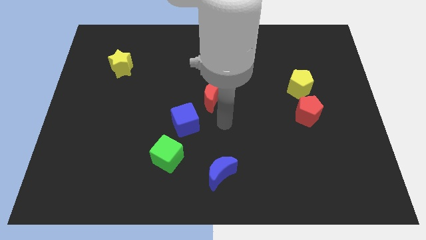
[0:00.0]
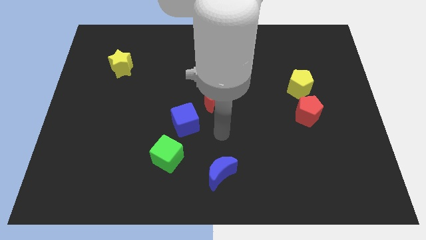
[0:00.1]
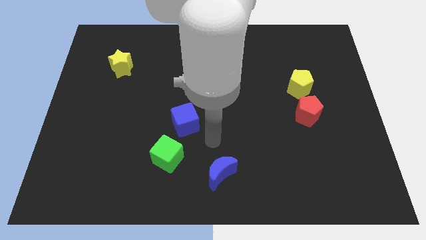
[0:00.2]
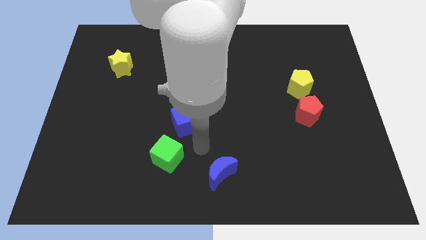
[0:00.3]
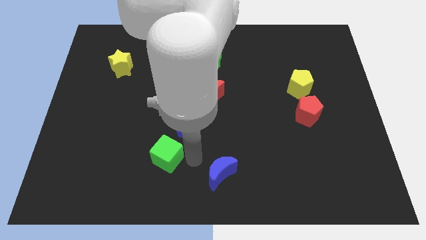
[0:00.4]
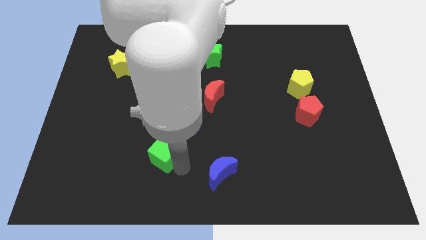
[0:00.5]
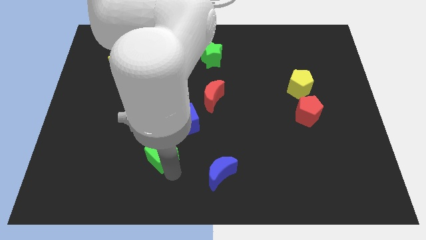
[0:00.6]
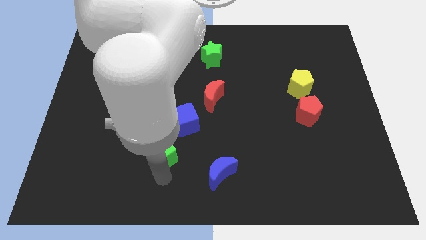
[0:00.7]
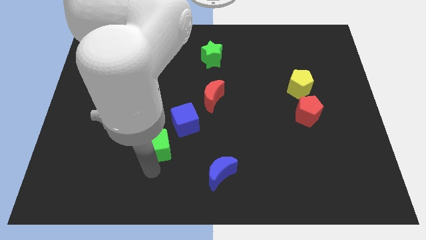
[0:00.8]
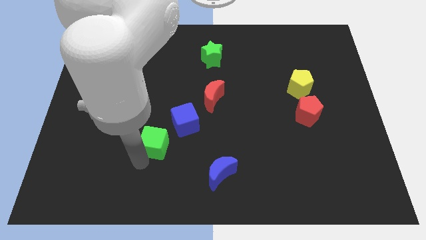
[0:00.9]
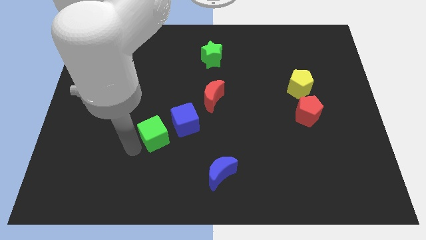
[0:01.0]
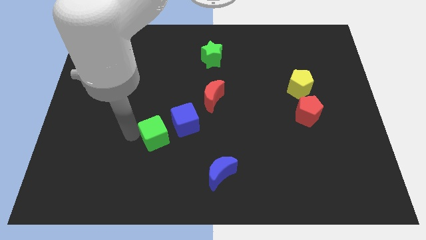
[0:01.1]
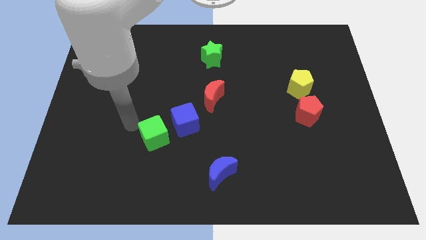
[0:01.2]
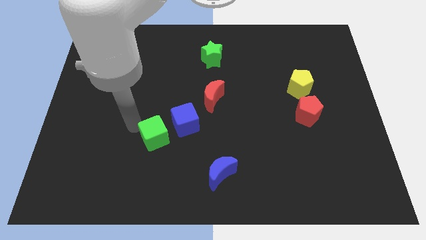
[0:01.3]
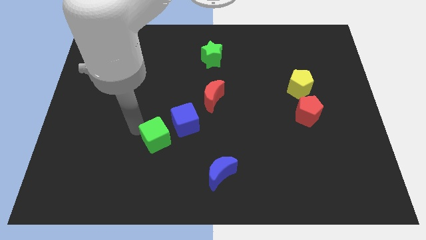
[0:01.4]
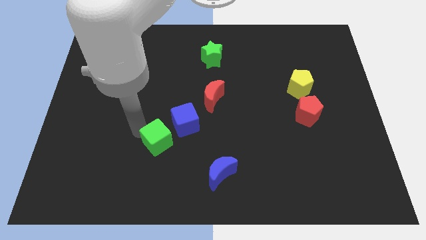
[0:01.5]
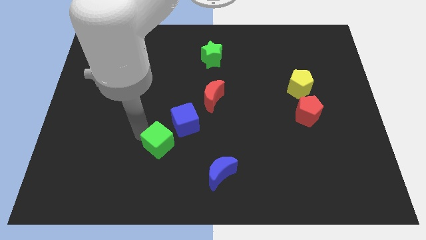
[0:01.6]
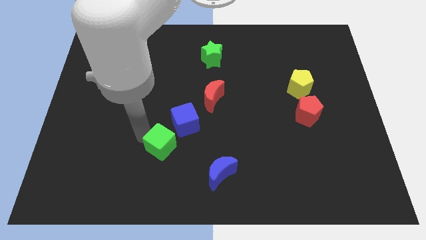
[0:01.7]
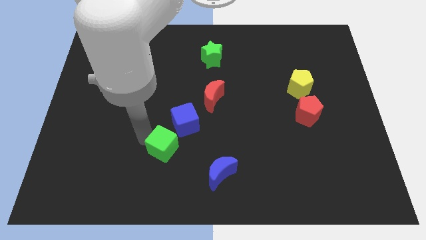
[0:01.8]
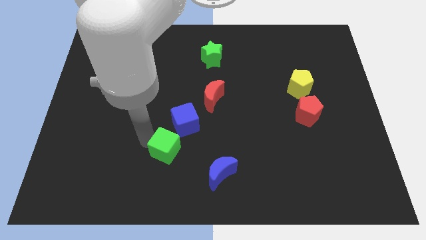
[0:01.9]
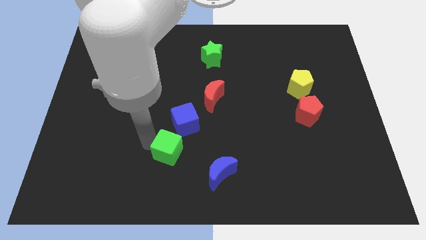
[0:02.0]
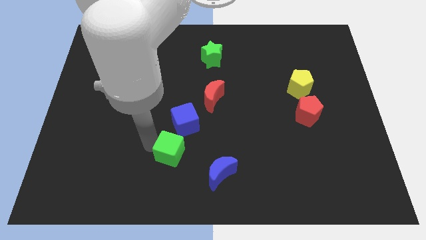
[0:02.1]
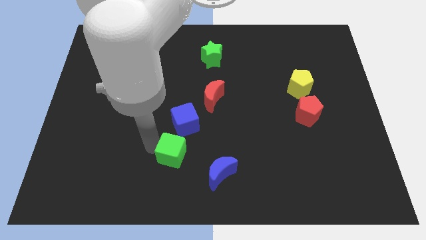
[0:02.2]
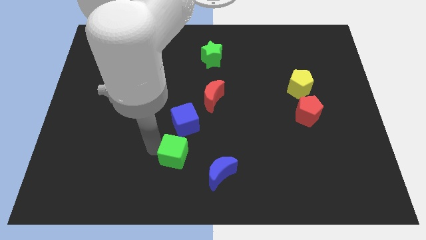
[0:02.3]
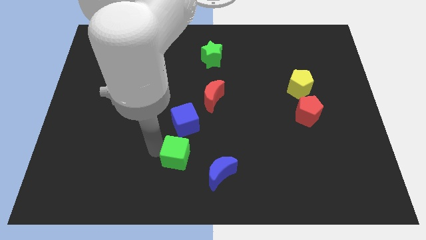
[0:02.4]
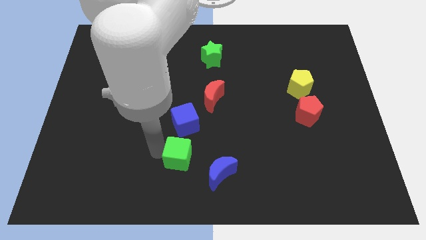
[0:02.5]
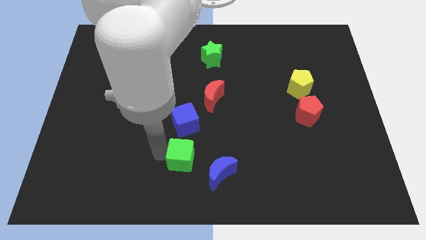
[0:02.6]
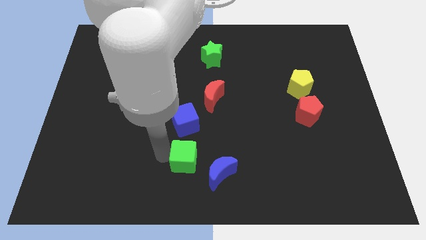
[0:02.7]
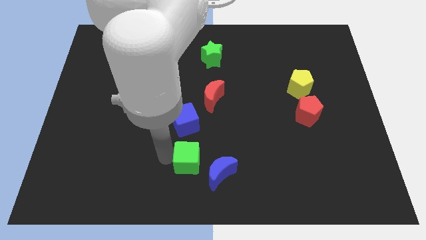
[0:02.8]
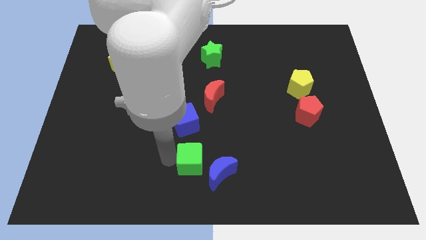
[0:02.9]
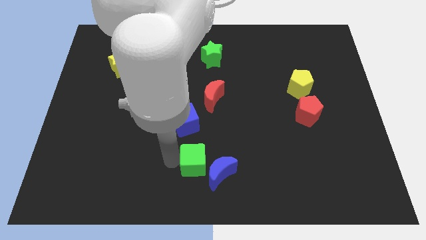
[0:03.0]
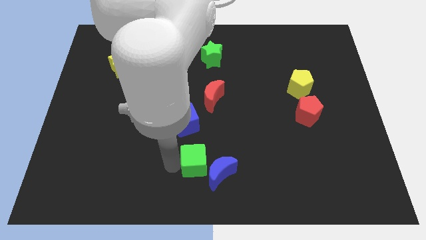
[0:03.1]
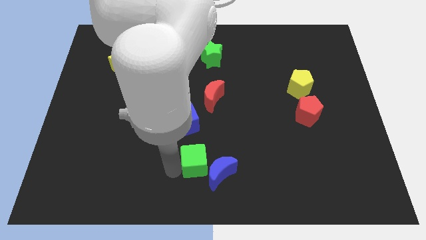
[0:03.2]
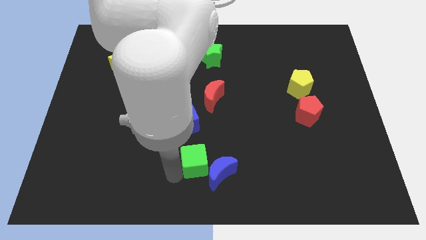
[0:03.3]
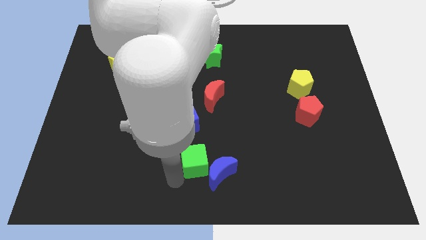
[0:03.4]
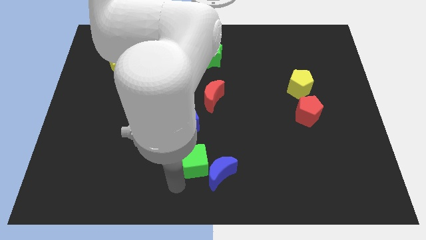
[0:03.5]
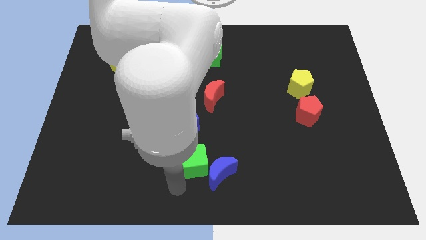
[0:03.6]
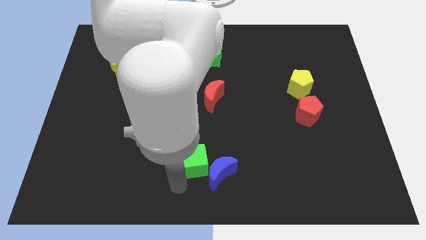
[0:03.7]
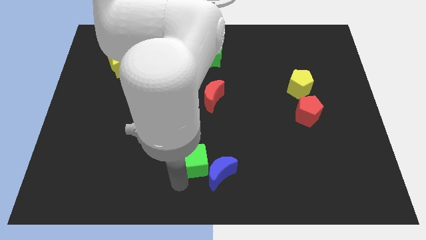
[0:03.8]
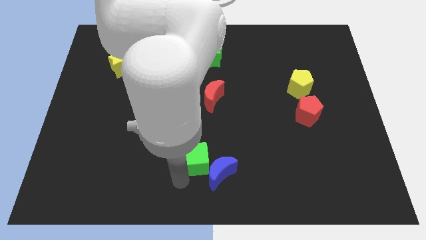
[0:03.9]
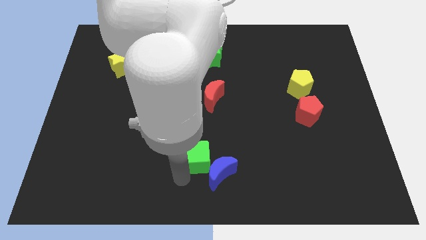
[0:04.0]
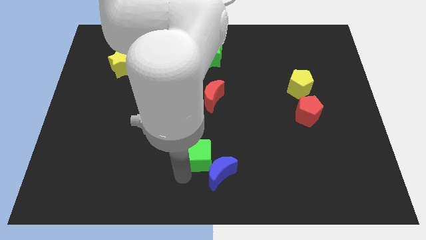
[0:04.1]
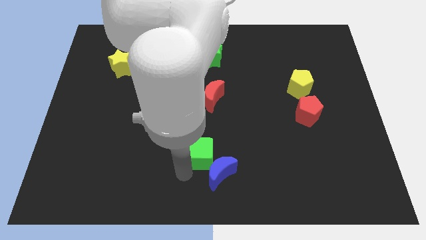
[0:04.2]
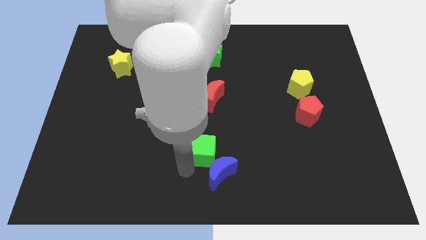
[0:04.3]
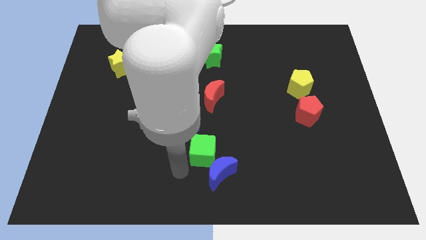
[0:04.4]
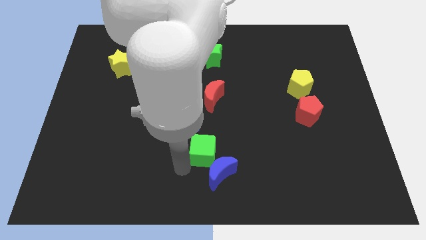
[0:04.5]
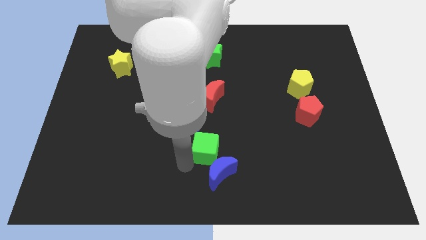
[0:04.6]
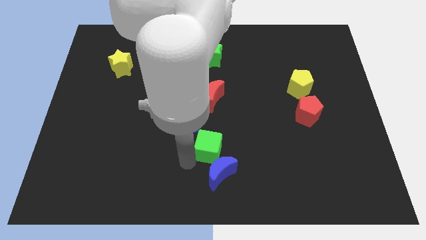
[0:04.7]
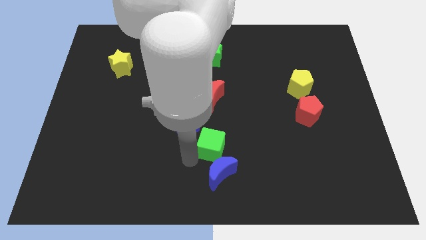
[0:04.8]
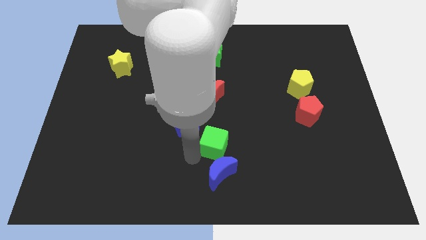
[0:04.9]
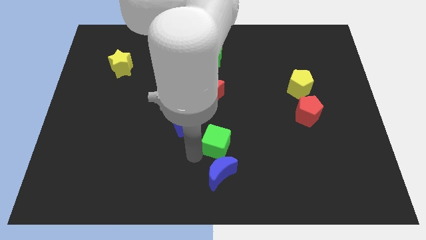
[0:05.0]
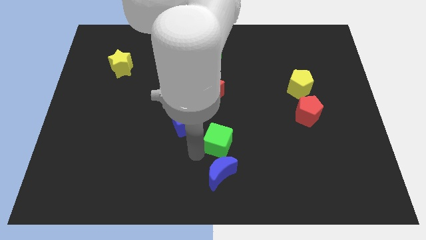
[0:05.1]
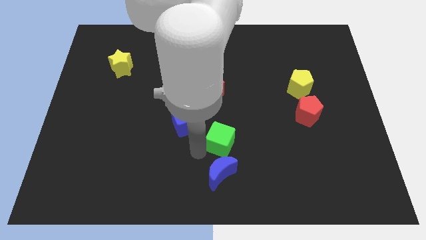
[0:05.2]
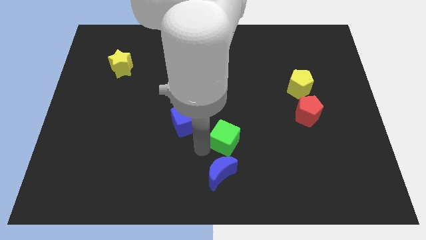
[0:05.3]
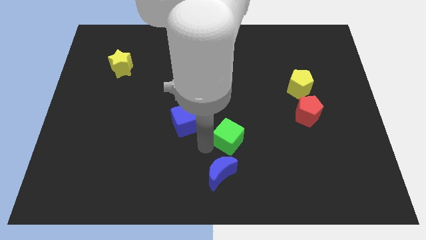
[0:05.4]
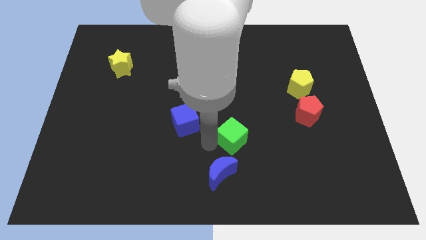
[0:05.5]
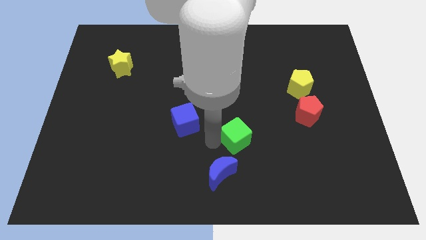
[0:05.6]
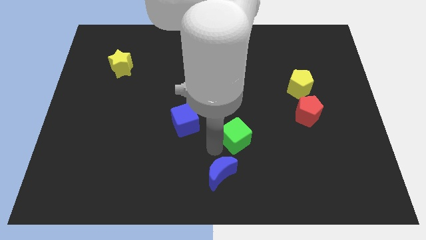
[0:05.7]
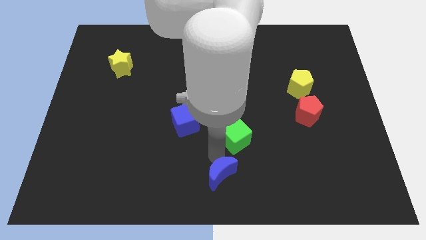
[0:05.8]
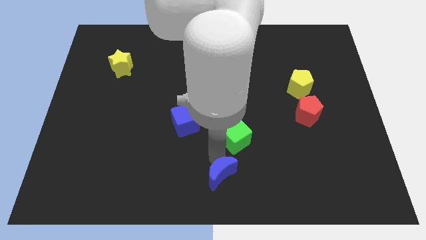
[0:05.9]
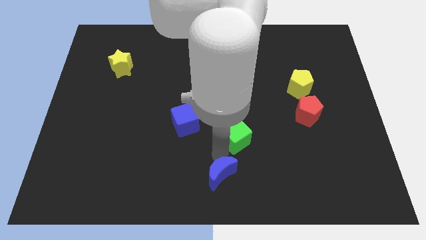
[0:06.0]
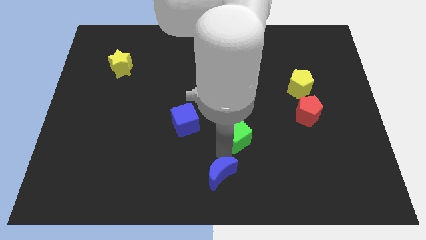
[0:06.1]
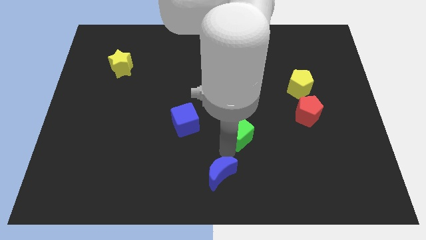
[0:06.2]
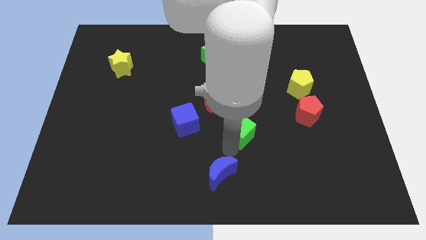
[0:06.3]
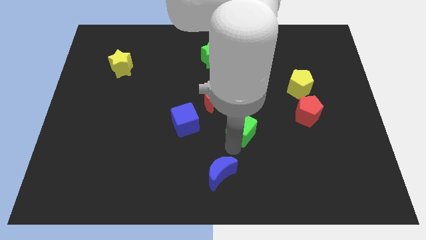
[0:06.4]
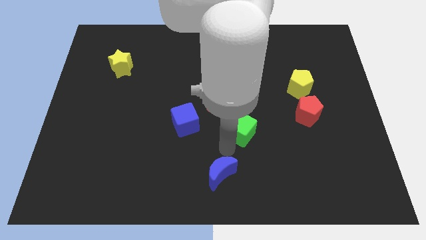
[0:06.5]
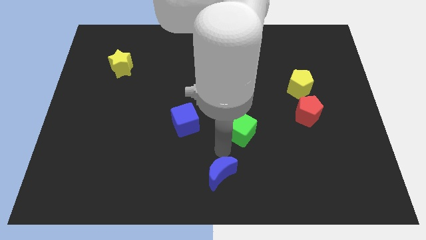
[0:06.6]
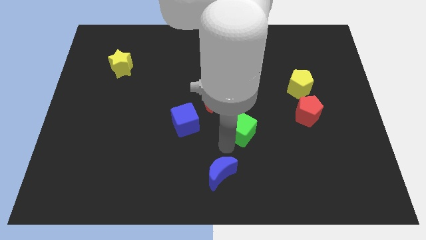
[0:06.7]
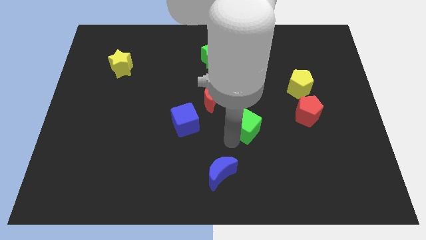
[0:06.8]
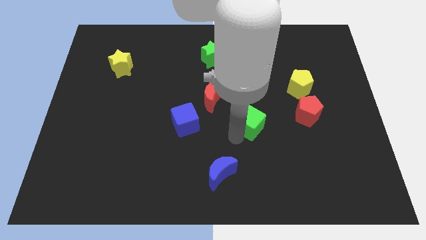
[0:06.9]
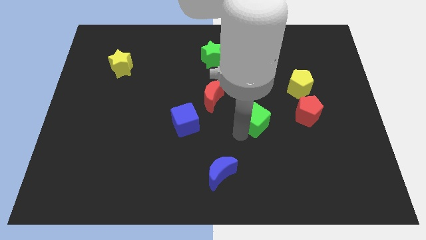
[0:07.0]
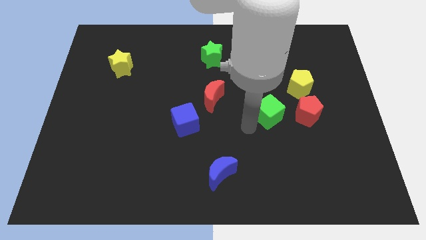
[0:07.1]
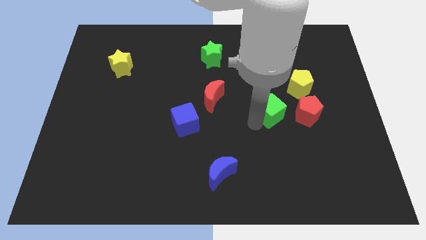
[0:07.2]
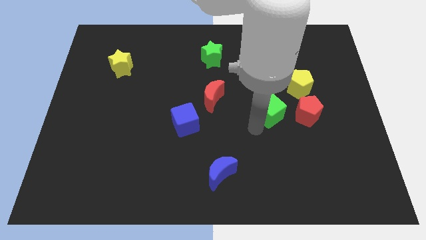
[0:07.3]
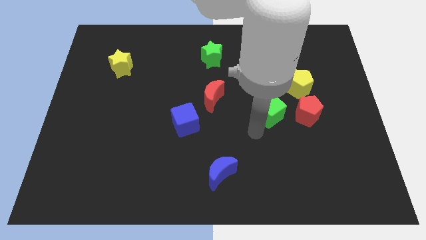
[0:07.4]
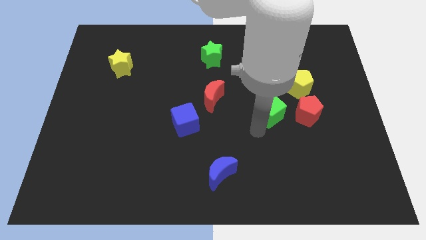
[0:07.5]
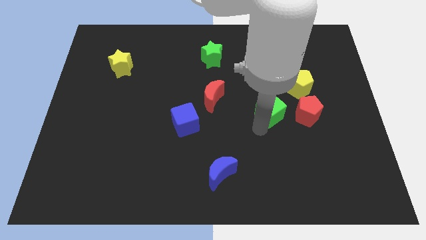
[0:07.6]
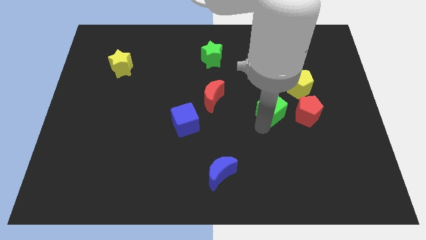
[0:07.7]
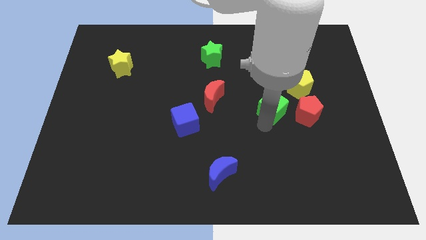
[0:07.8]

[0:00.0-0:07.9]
move the green cube diagonally up and to the left of the red pentagon
